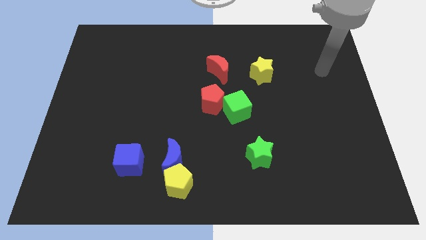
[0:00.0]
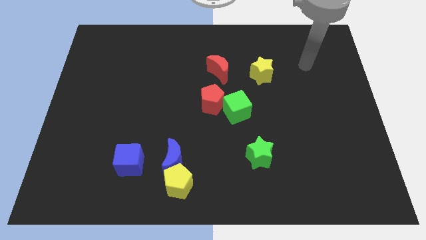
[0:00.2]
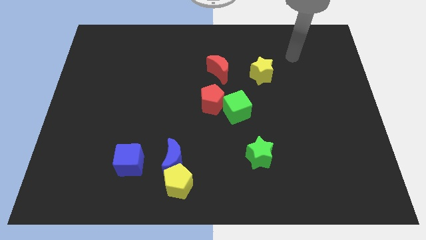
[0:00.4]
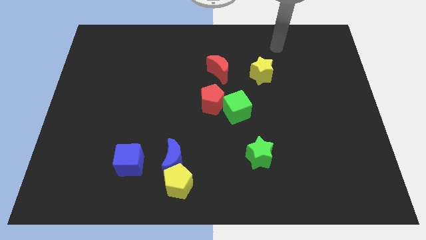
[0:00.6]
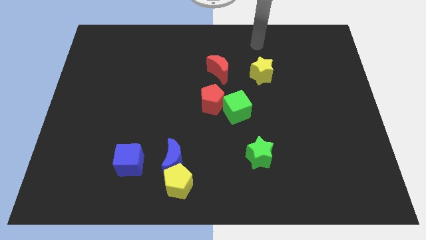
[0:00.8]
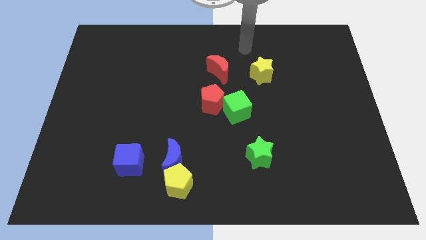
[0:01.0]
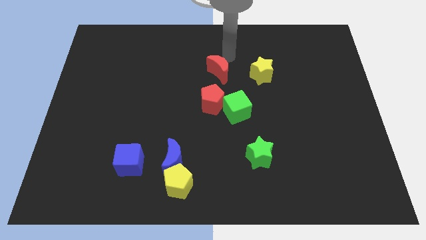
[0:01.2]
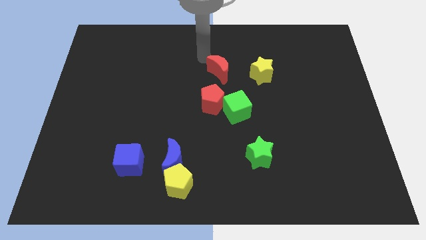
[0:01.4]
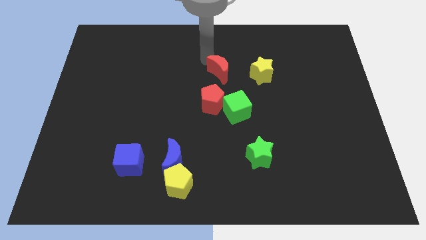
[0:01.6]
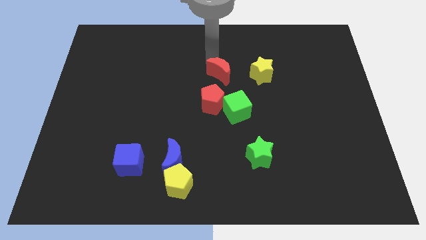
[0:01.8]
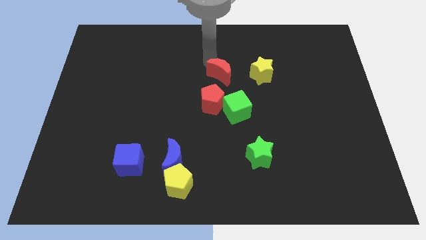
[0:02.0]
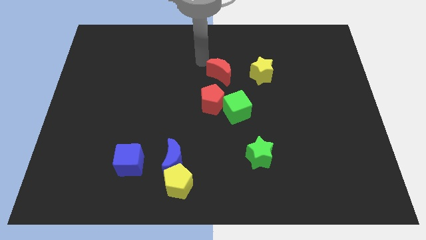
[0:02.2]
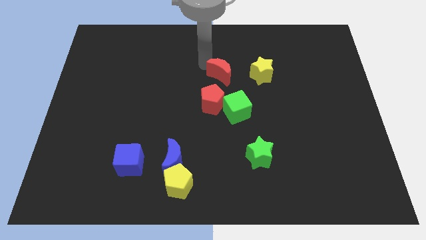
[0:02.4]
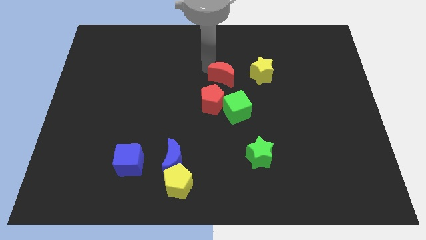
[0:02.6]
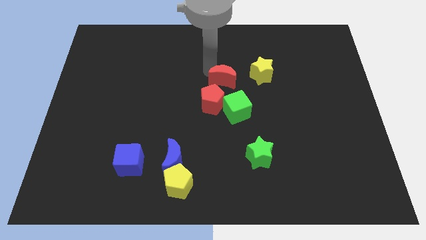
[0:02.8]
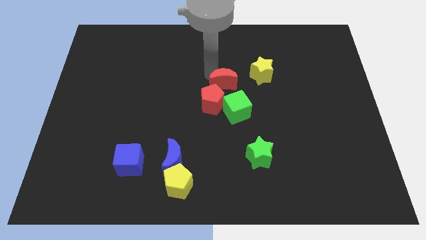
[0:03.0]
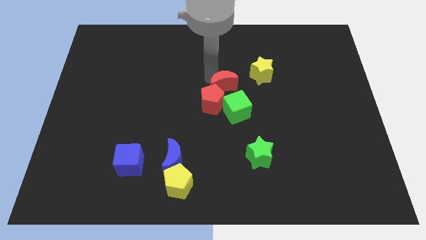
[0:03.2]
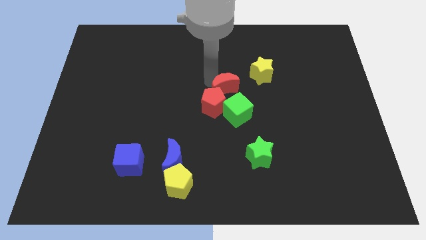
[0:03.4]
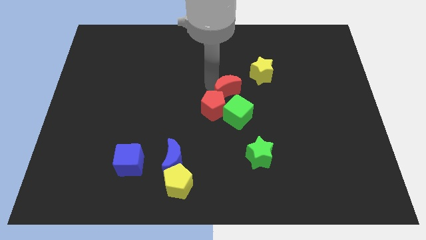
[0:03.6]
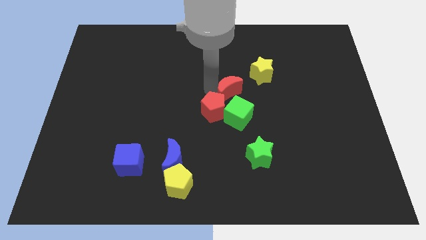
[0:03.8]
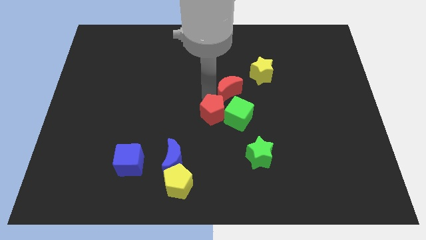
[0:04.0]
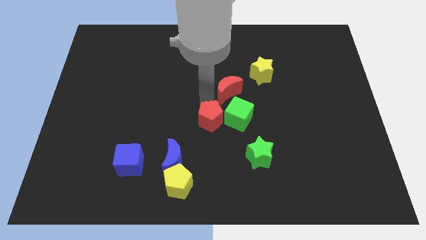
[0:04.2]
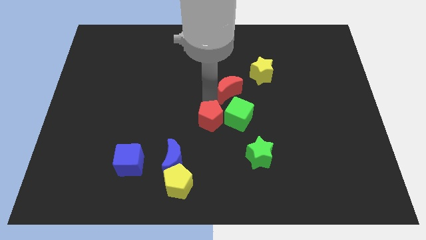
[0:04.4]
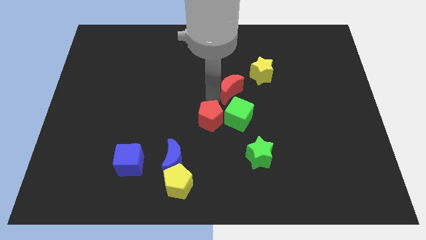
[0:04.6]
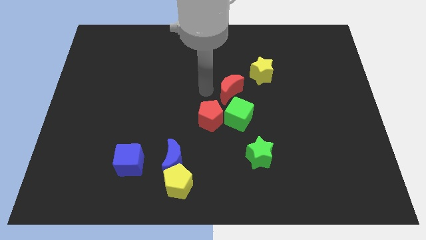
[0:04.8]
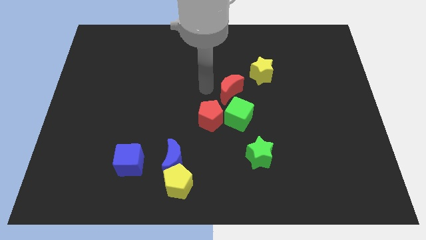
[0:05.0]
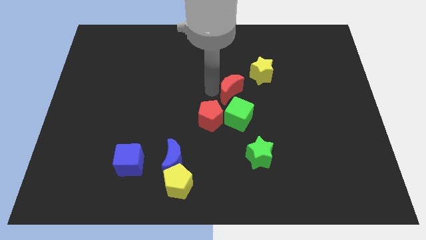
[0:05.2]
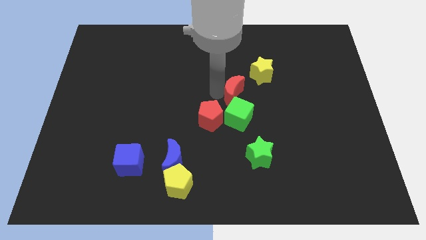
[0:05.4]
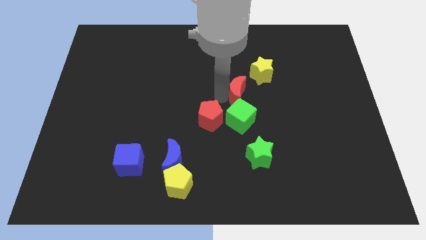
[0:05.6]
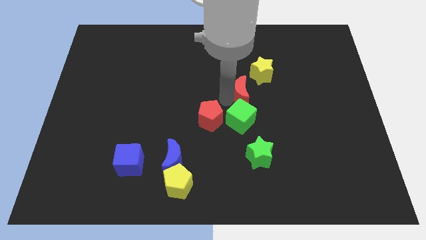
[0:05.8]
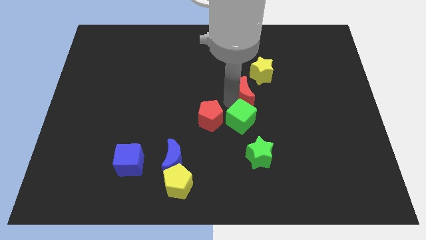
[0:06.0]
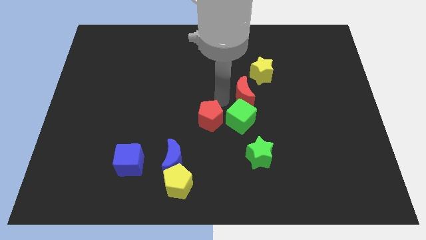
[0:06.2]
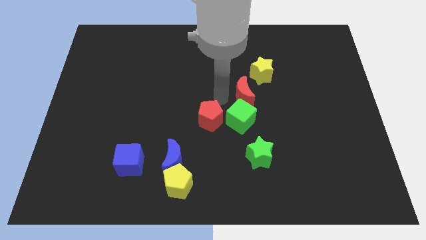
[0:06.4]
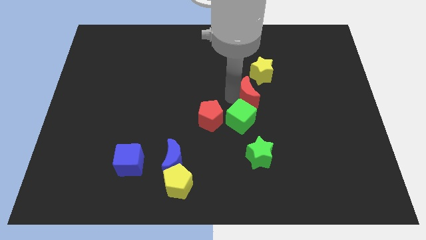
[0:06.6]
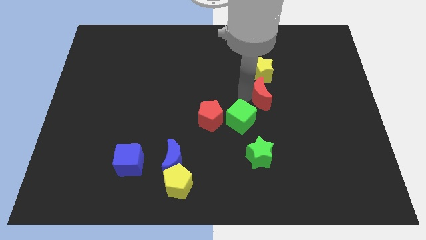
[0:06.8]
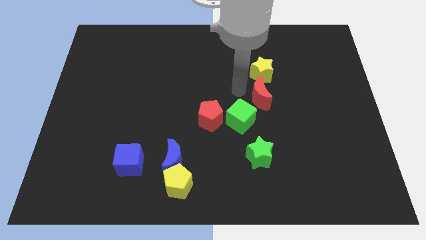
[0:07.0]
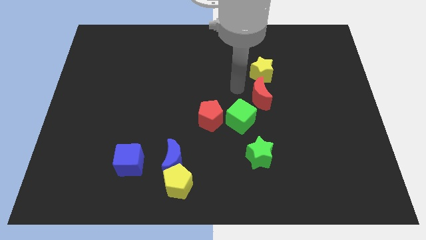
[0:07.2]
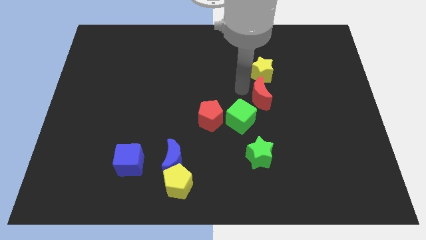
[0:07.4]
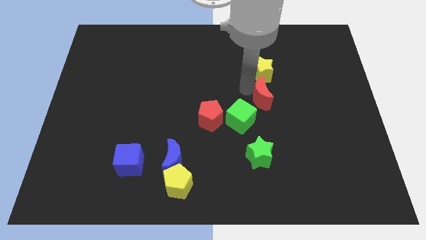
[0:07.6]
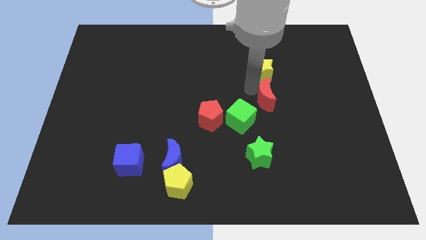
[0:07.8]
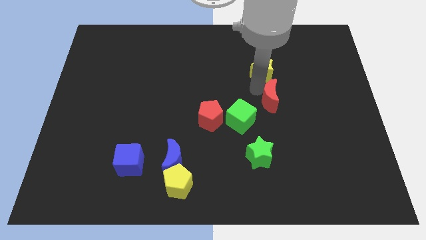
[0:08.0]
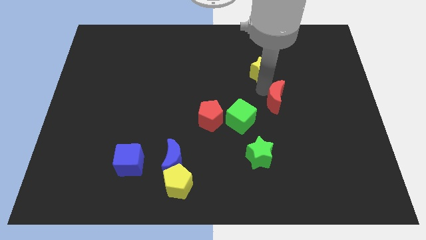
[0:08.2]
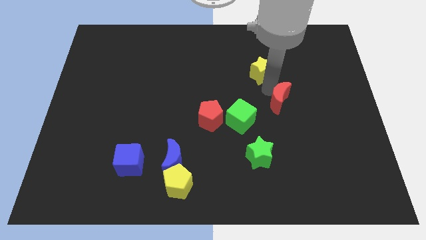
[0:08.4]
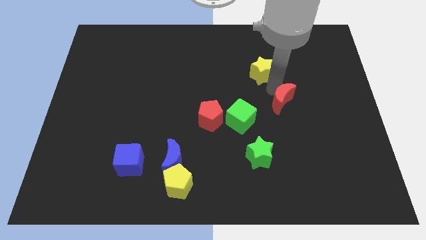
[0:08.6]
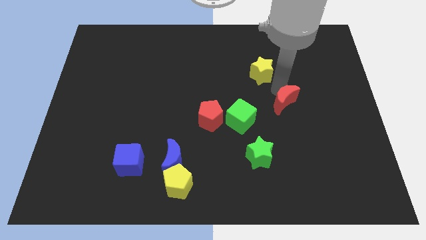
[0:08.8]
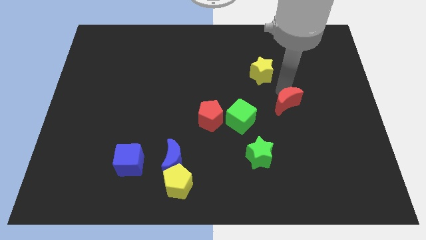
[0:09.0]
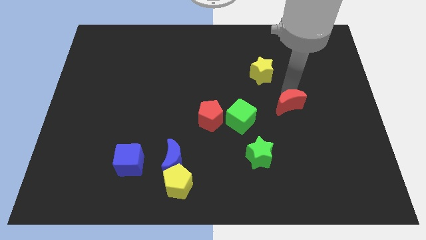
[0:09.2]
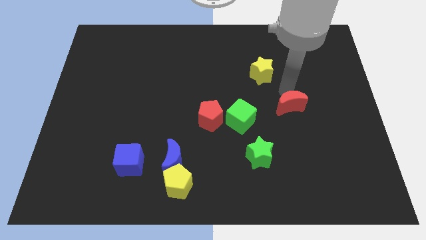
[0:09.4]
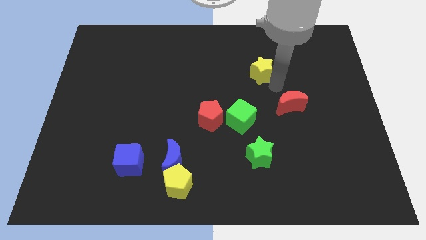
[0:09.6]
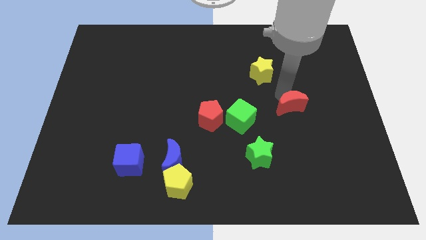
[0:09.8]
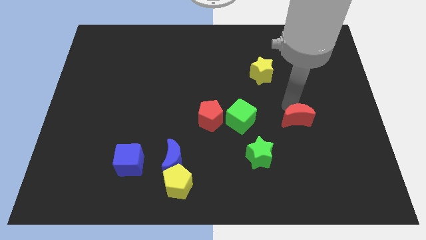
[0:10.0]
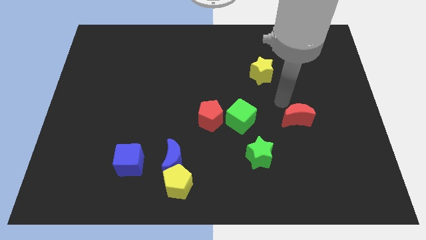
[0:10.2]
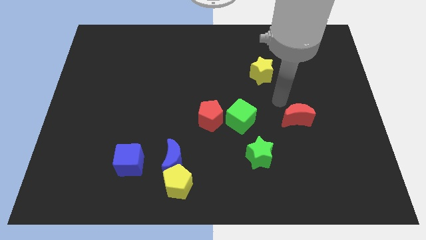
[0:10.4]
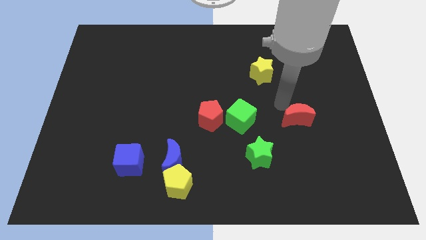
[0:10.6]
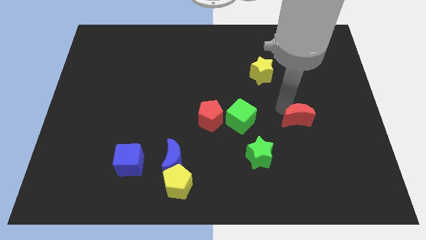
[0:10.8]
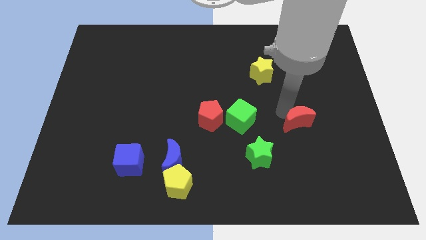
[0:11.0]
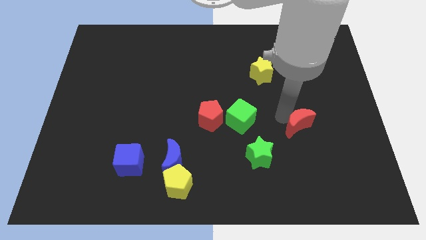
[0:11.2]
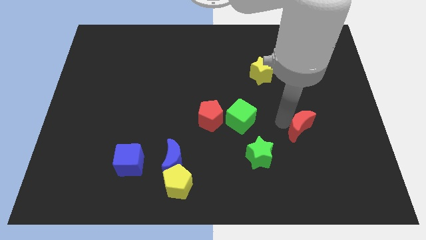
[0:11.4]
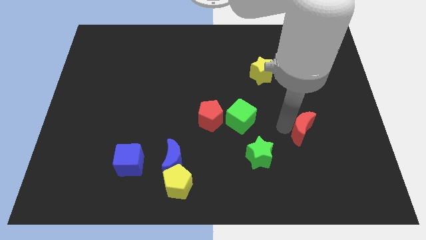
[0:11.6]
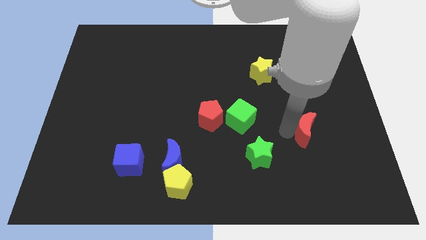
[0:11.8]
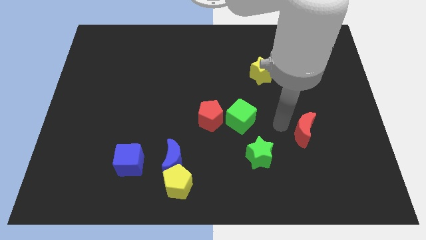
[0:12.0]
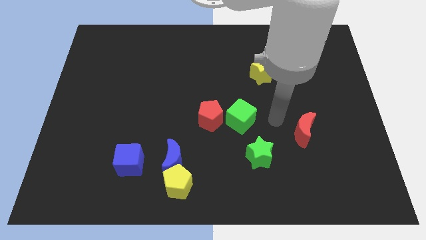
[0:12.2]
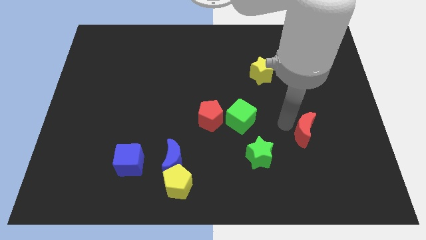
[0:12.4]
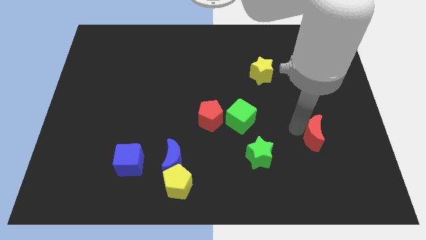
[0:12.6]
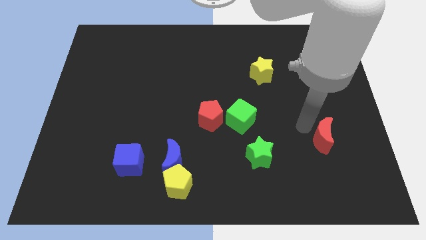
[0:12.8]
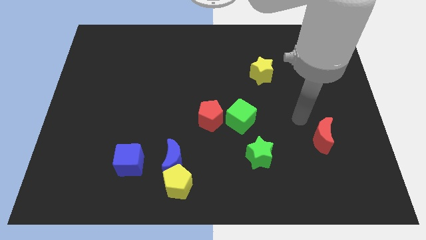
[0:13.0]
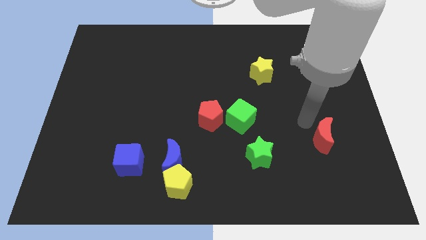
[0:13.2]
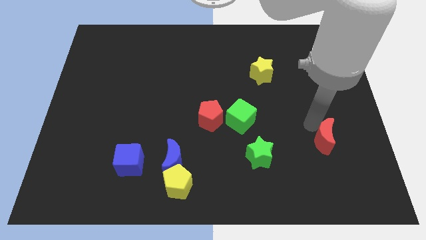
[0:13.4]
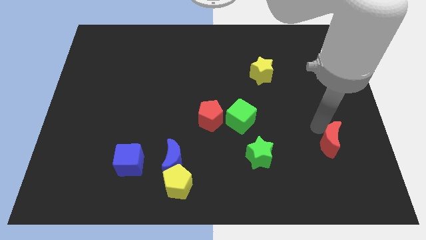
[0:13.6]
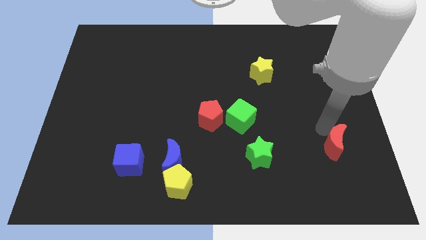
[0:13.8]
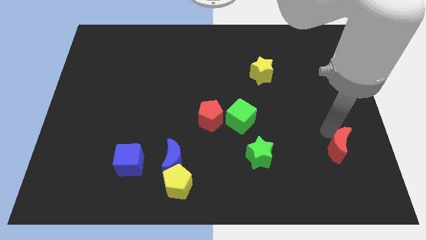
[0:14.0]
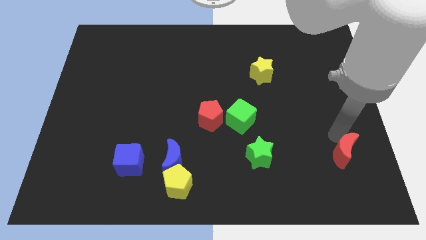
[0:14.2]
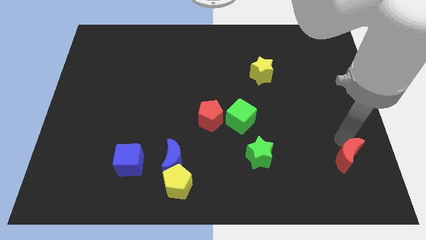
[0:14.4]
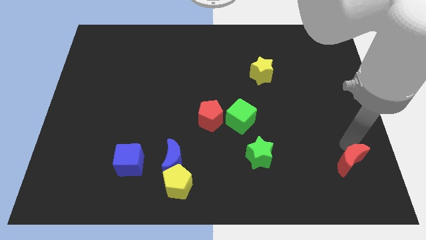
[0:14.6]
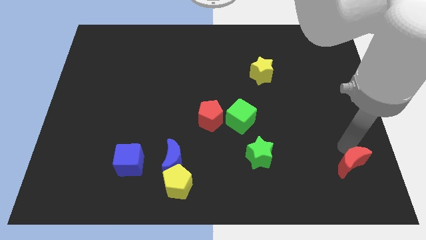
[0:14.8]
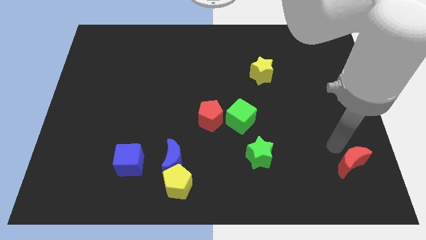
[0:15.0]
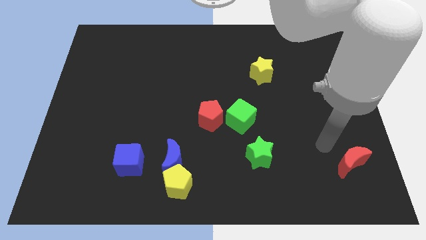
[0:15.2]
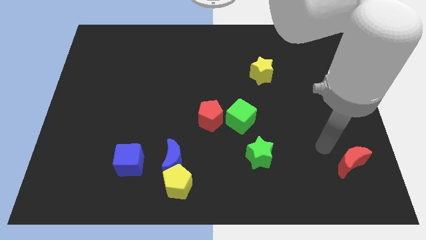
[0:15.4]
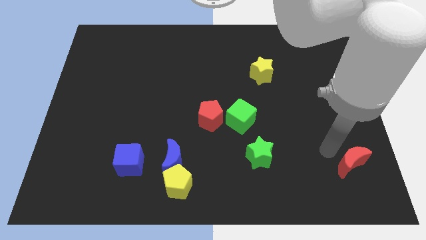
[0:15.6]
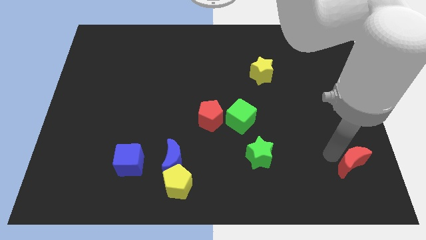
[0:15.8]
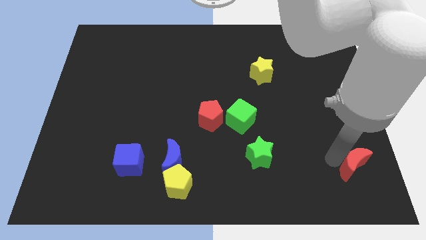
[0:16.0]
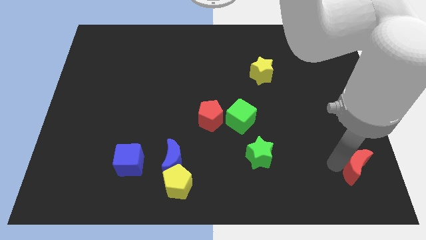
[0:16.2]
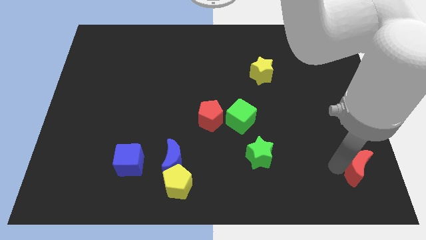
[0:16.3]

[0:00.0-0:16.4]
move the red moon to the bottom right of the board
